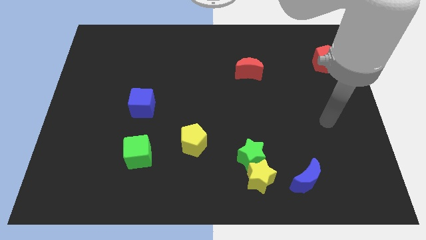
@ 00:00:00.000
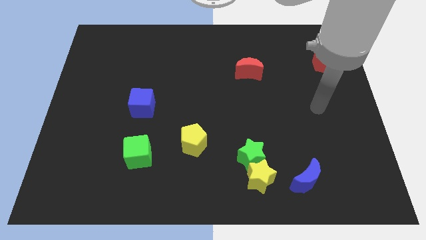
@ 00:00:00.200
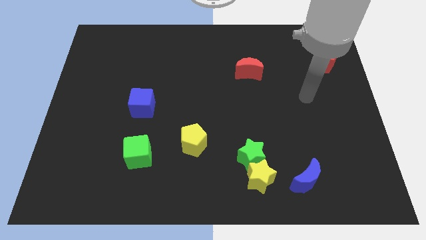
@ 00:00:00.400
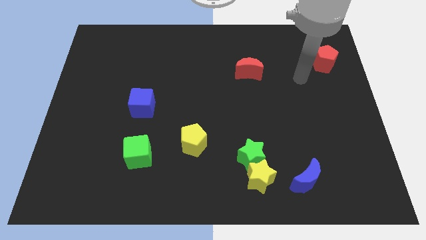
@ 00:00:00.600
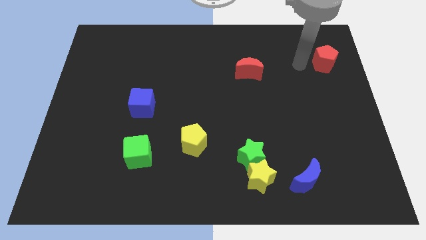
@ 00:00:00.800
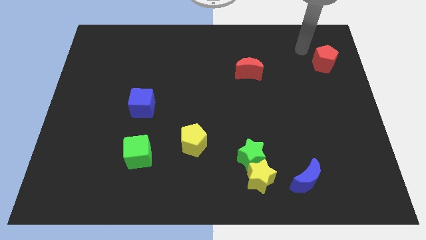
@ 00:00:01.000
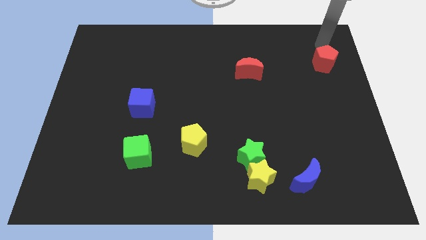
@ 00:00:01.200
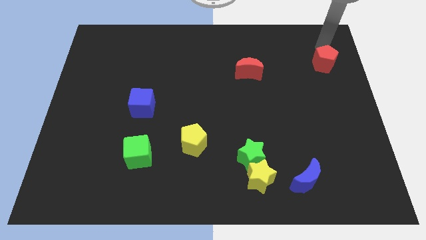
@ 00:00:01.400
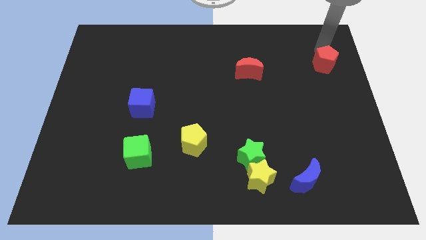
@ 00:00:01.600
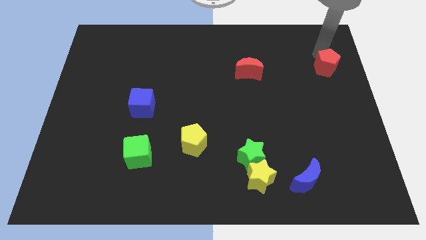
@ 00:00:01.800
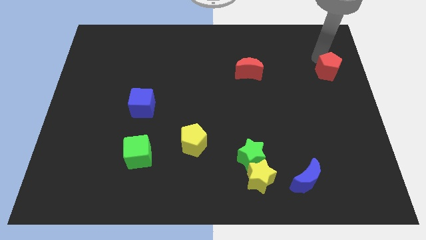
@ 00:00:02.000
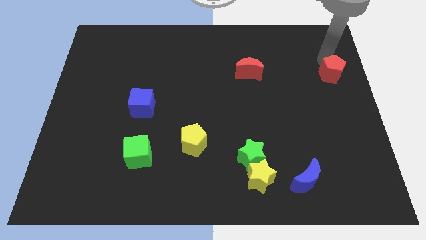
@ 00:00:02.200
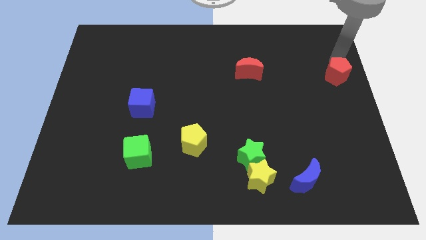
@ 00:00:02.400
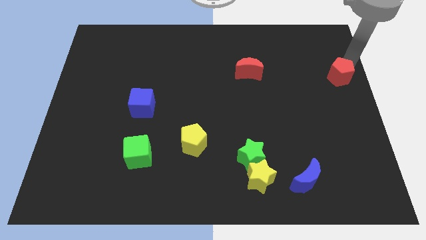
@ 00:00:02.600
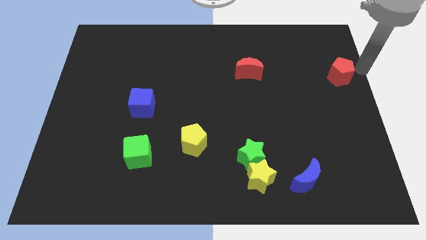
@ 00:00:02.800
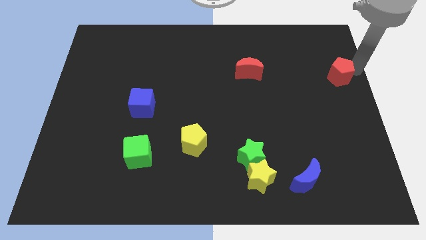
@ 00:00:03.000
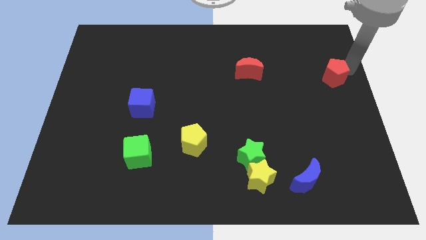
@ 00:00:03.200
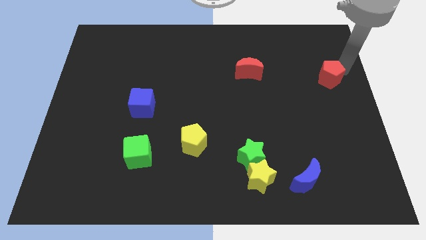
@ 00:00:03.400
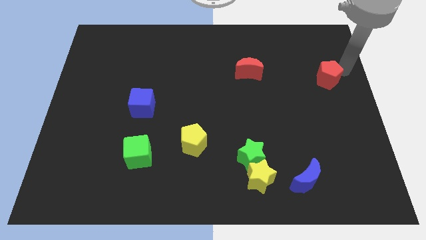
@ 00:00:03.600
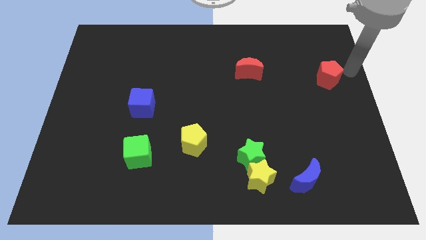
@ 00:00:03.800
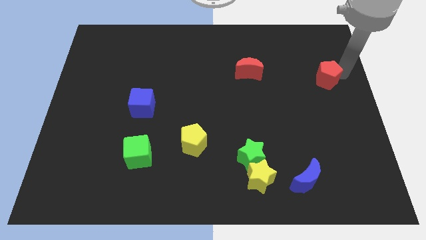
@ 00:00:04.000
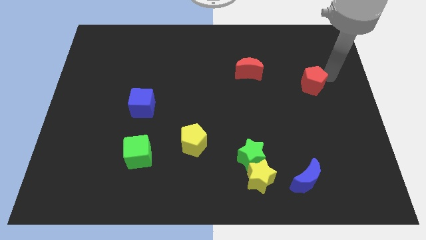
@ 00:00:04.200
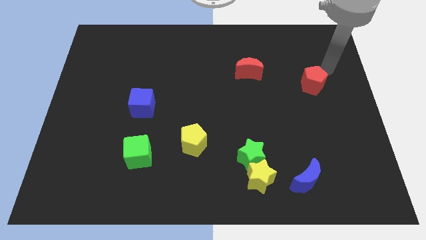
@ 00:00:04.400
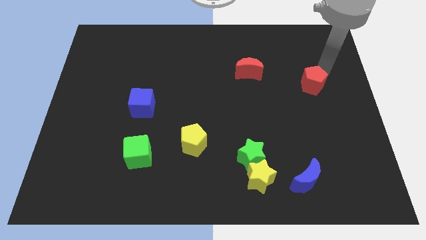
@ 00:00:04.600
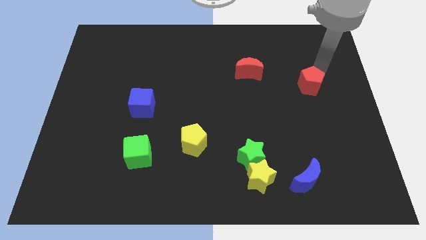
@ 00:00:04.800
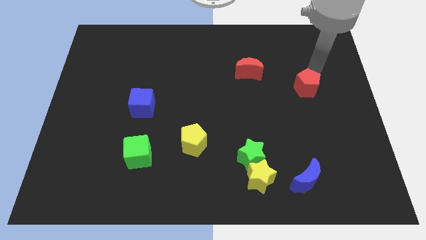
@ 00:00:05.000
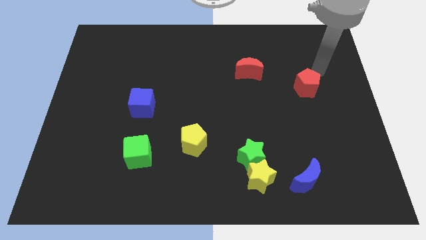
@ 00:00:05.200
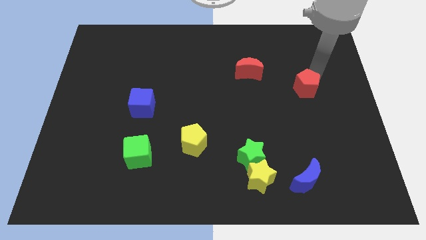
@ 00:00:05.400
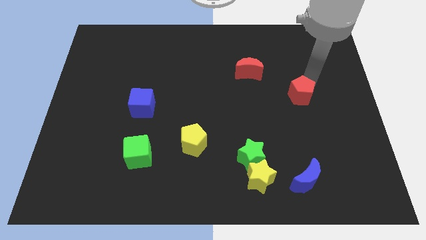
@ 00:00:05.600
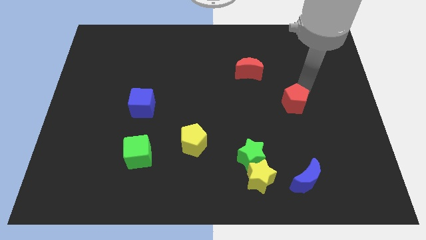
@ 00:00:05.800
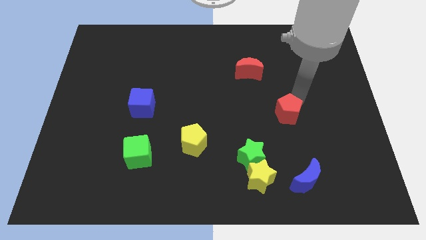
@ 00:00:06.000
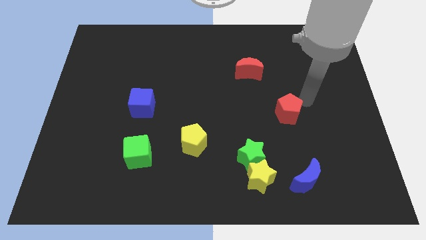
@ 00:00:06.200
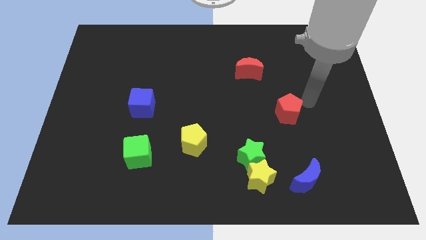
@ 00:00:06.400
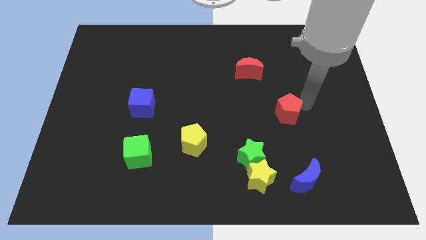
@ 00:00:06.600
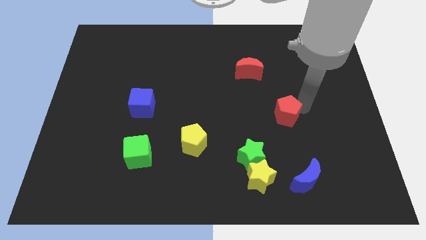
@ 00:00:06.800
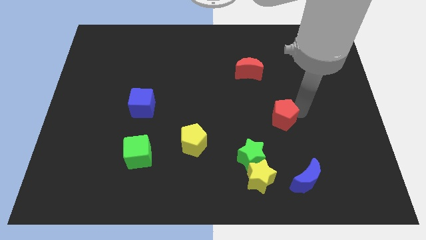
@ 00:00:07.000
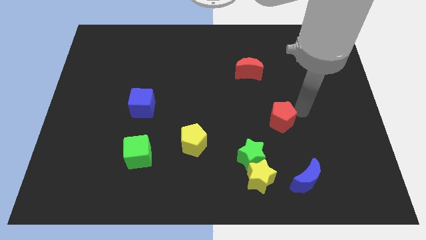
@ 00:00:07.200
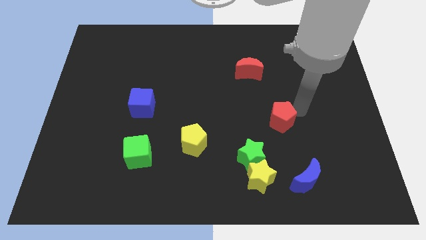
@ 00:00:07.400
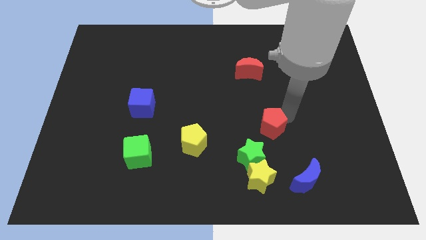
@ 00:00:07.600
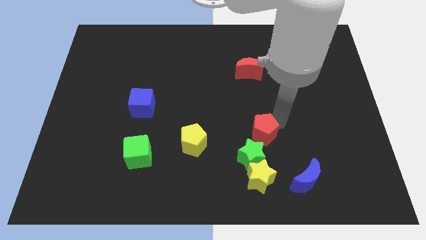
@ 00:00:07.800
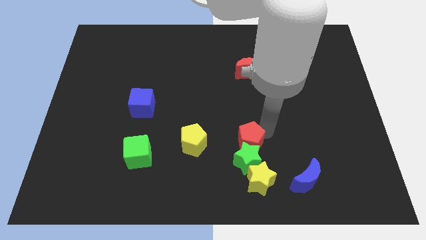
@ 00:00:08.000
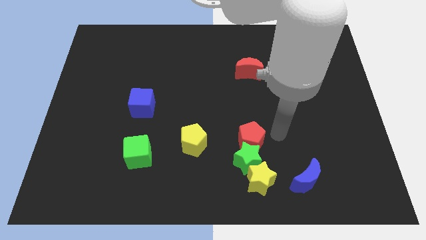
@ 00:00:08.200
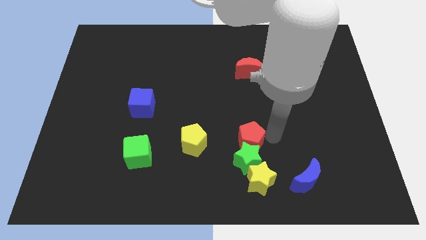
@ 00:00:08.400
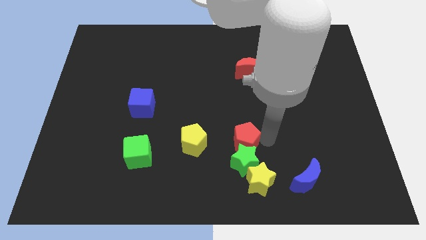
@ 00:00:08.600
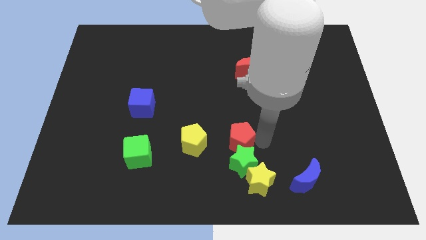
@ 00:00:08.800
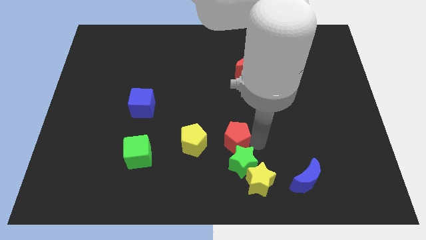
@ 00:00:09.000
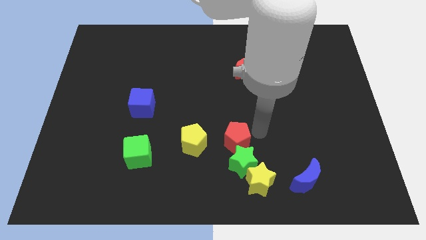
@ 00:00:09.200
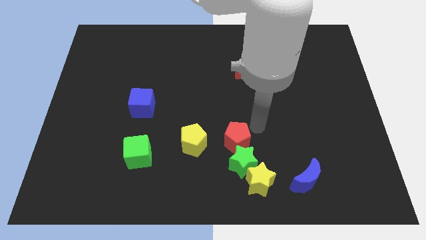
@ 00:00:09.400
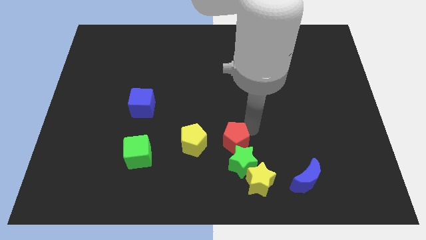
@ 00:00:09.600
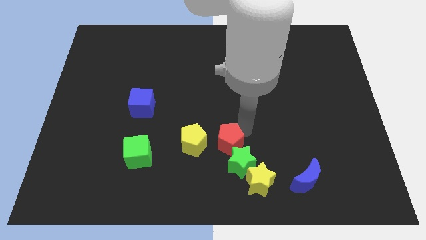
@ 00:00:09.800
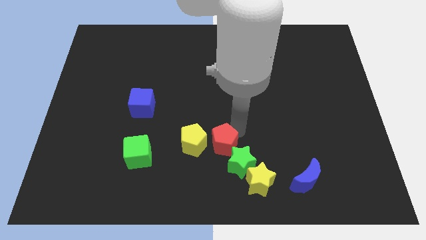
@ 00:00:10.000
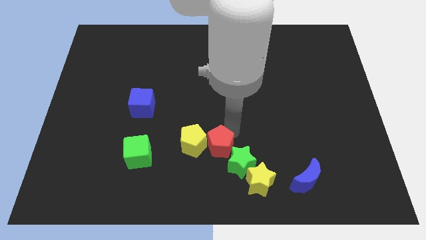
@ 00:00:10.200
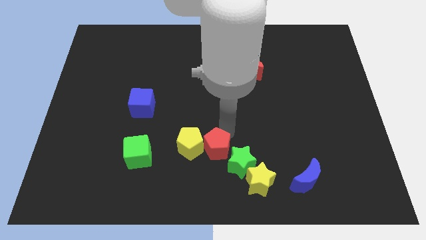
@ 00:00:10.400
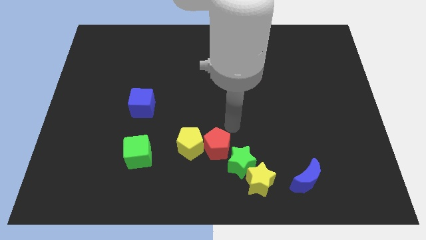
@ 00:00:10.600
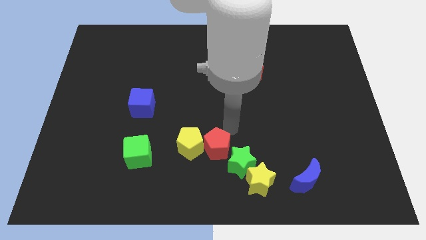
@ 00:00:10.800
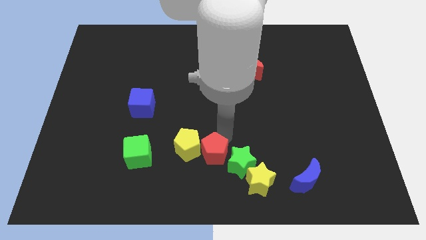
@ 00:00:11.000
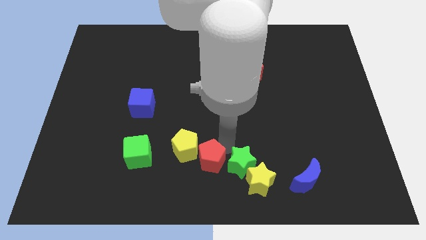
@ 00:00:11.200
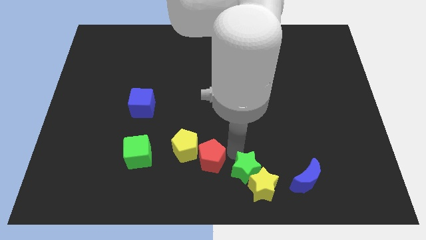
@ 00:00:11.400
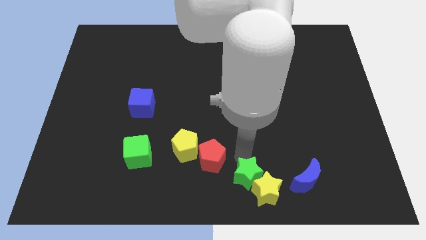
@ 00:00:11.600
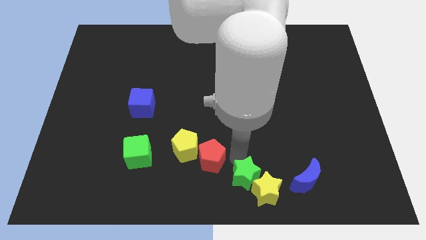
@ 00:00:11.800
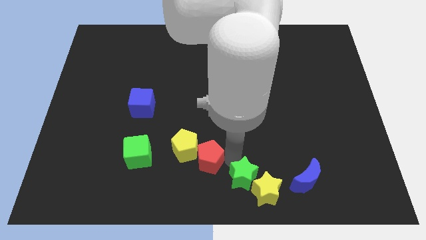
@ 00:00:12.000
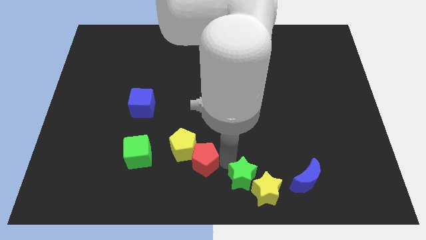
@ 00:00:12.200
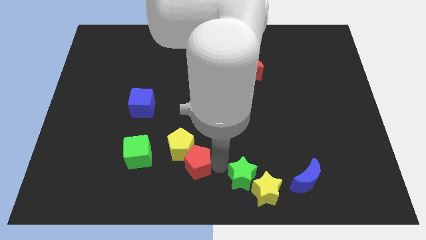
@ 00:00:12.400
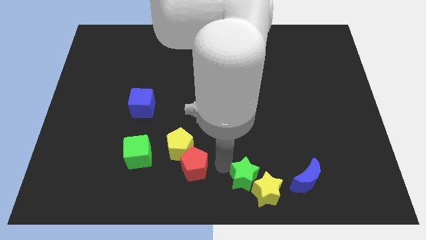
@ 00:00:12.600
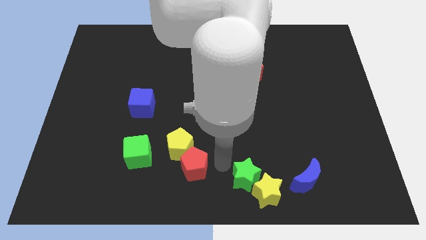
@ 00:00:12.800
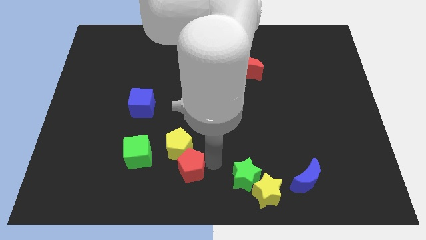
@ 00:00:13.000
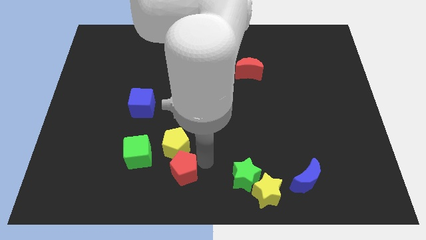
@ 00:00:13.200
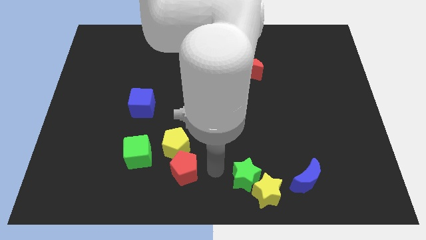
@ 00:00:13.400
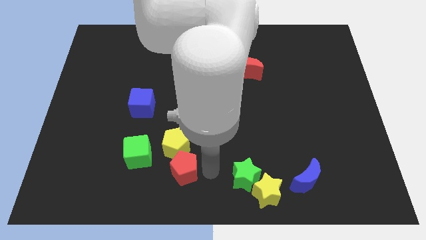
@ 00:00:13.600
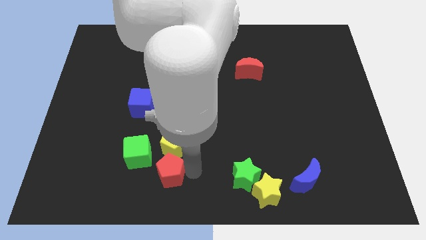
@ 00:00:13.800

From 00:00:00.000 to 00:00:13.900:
move the red pentagon diagonally down and to the left of the yellow pentagon
